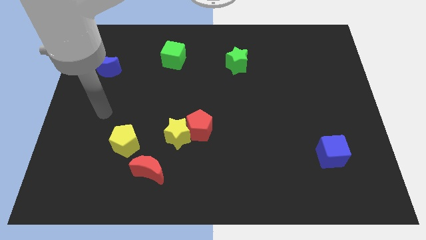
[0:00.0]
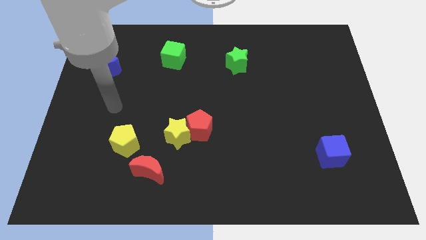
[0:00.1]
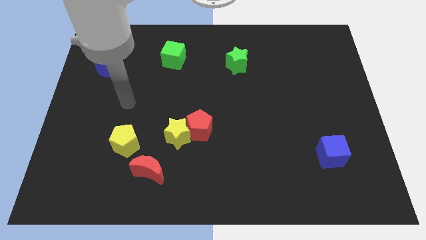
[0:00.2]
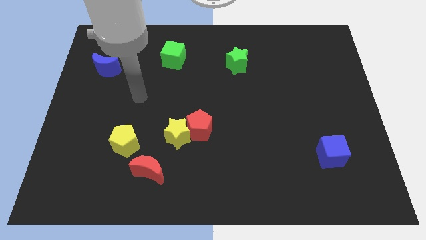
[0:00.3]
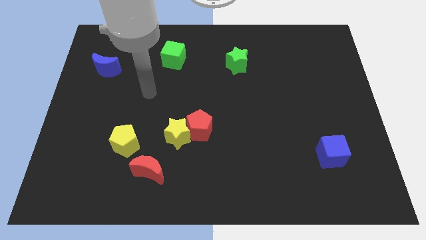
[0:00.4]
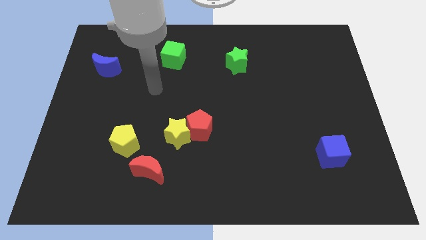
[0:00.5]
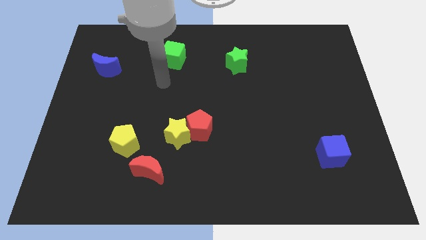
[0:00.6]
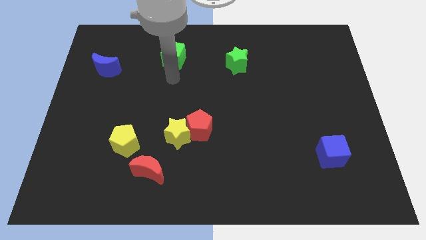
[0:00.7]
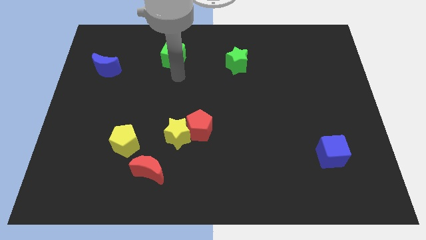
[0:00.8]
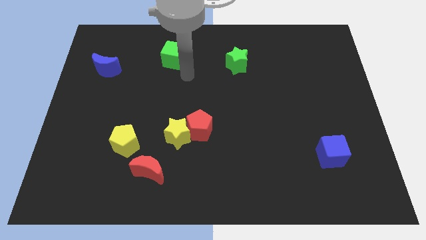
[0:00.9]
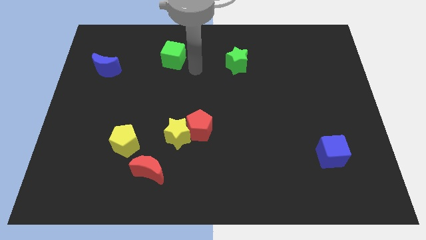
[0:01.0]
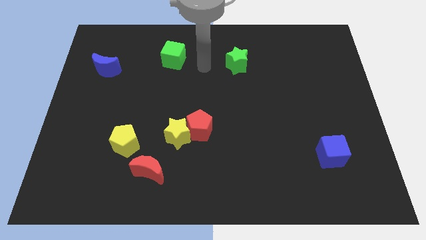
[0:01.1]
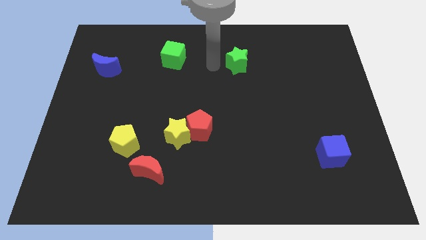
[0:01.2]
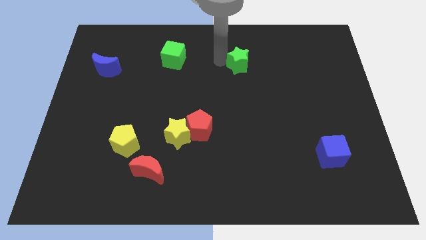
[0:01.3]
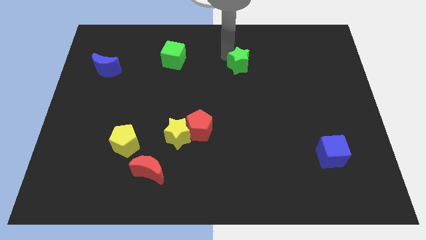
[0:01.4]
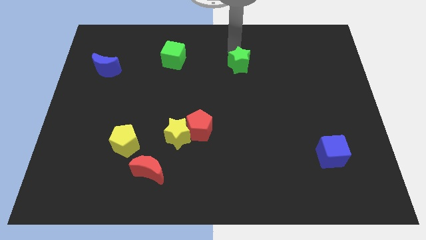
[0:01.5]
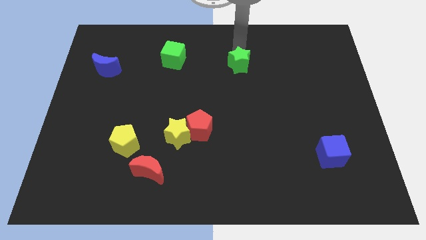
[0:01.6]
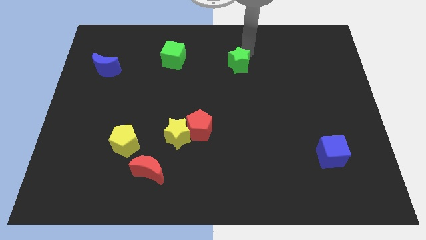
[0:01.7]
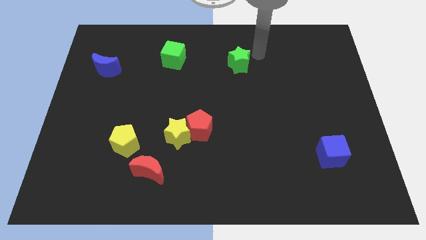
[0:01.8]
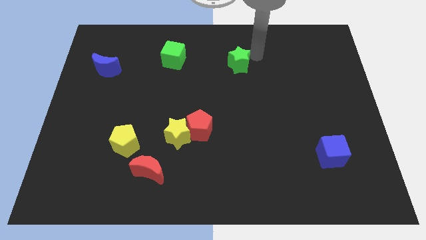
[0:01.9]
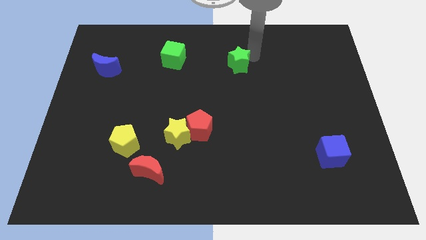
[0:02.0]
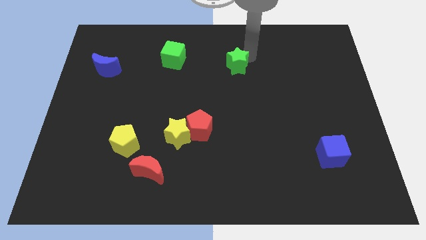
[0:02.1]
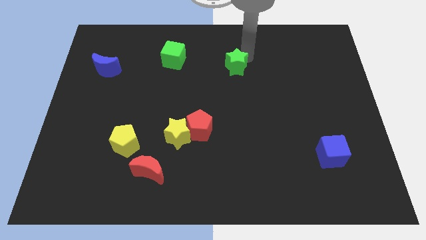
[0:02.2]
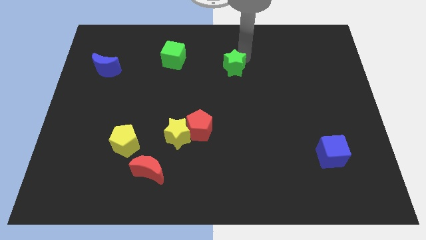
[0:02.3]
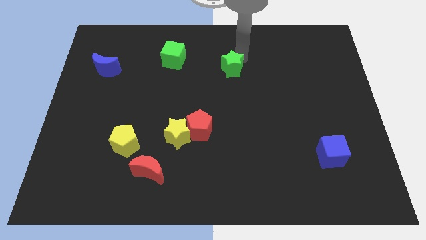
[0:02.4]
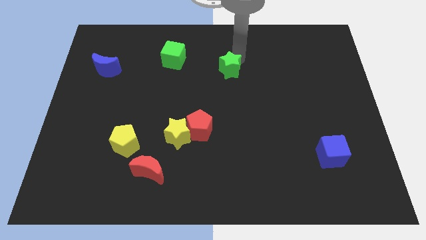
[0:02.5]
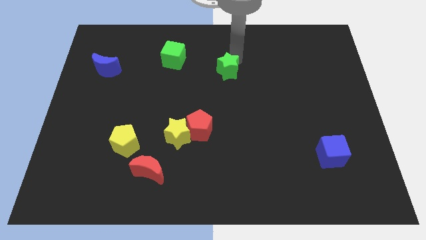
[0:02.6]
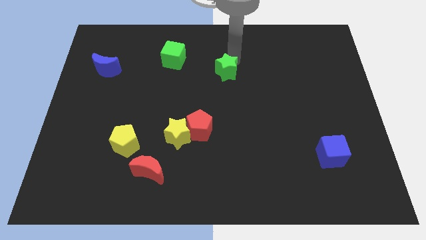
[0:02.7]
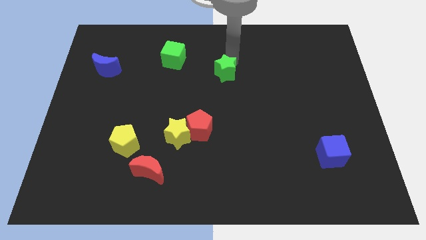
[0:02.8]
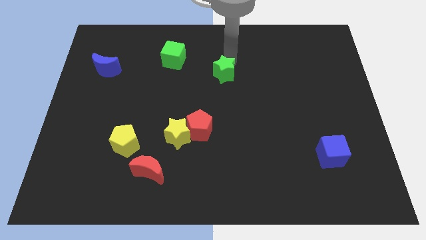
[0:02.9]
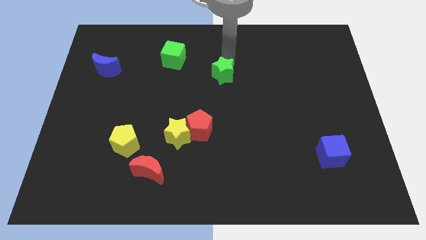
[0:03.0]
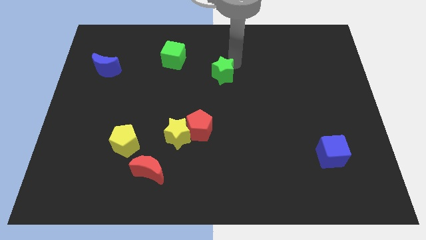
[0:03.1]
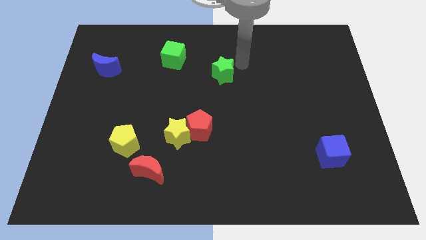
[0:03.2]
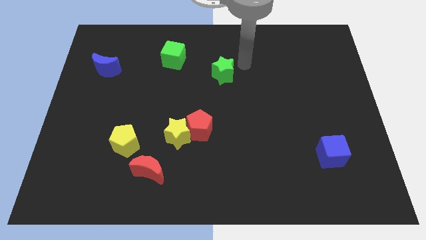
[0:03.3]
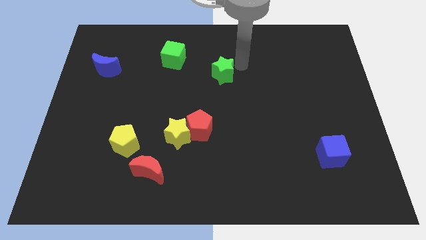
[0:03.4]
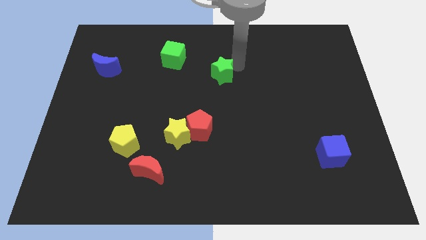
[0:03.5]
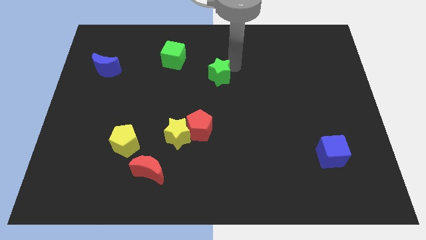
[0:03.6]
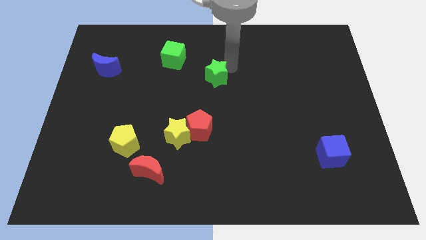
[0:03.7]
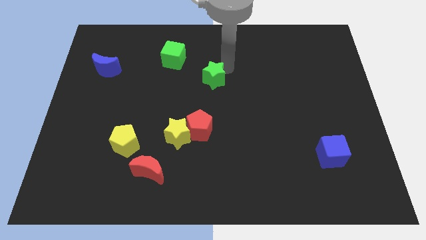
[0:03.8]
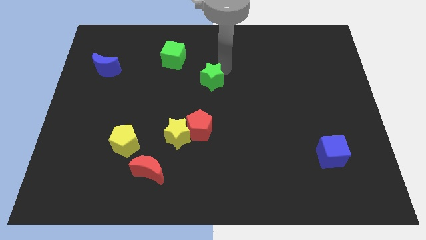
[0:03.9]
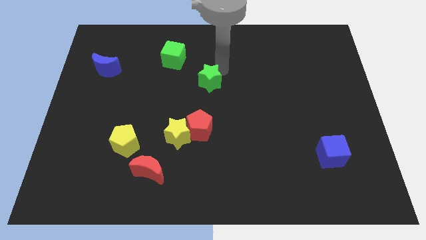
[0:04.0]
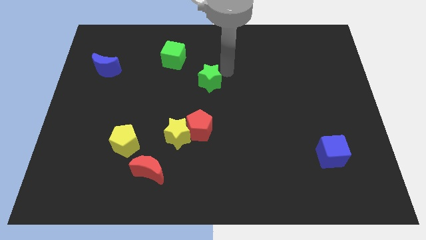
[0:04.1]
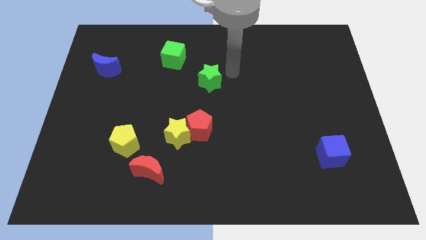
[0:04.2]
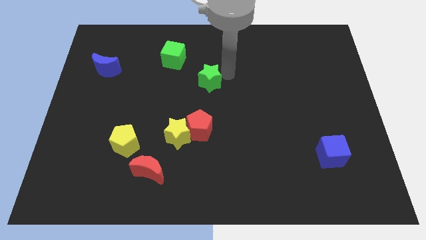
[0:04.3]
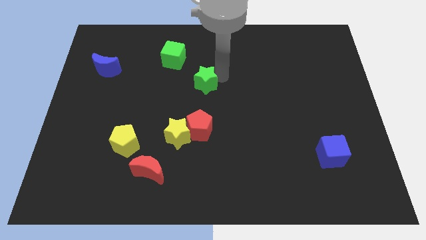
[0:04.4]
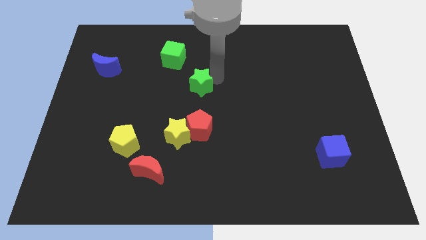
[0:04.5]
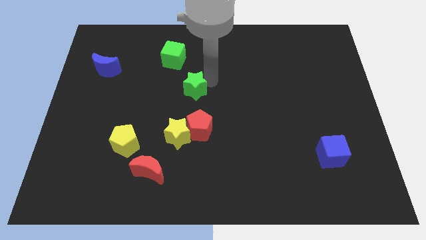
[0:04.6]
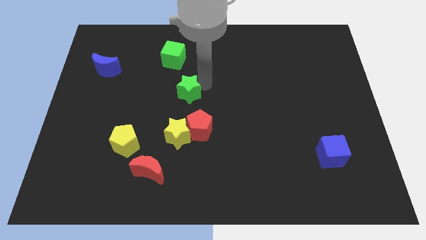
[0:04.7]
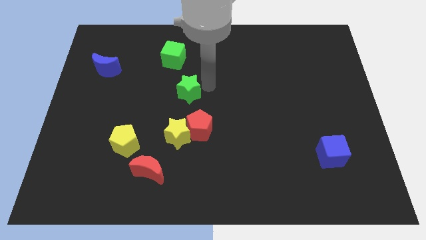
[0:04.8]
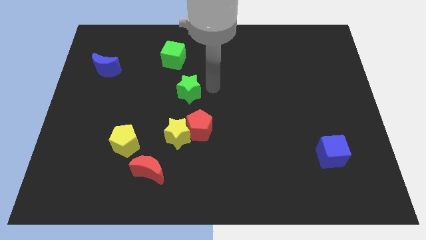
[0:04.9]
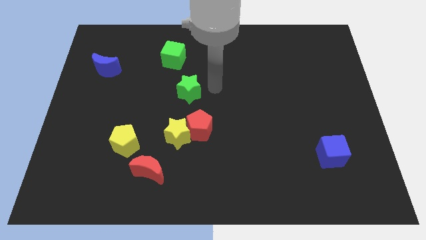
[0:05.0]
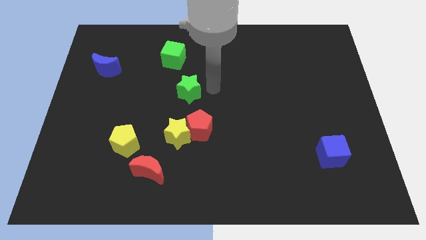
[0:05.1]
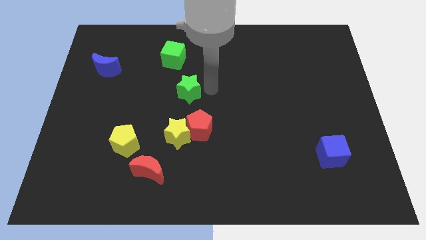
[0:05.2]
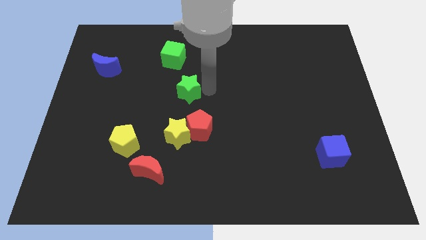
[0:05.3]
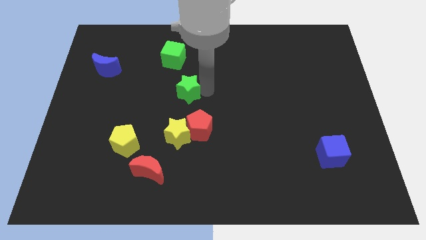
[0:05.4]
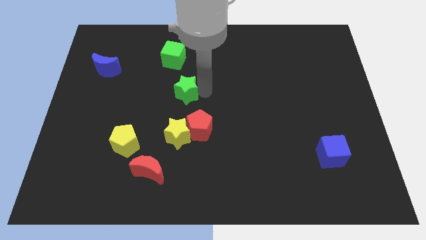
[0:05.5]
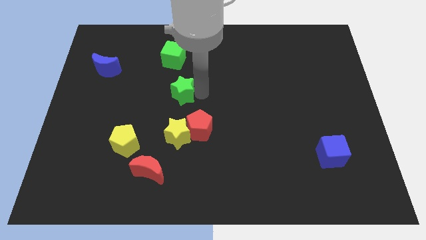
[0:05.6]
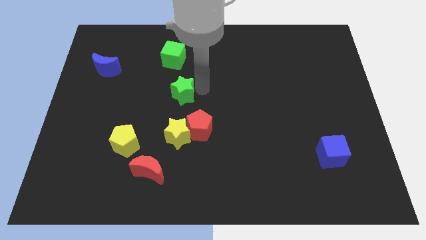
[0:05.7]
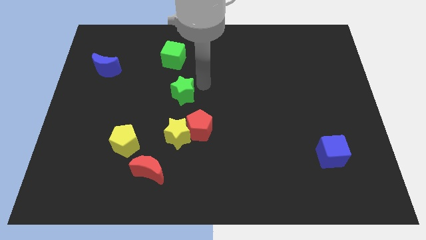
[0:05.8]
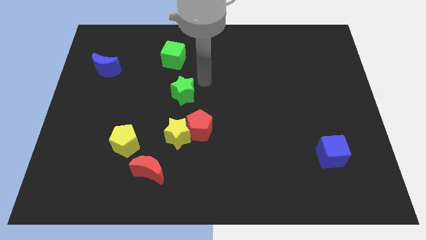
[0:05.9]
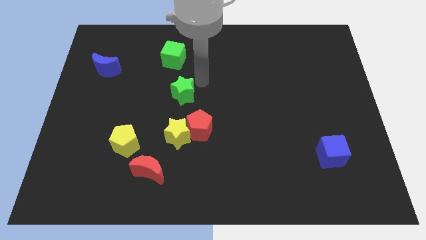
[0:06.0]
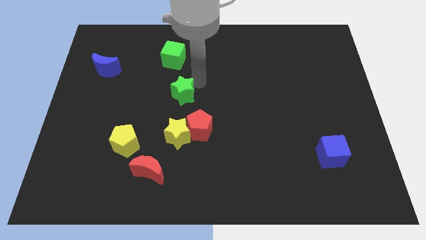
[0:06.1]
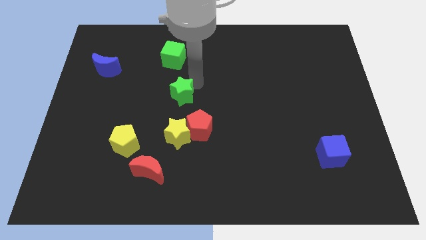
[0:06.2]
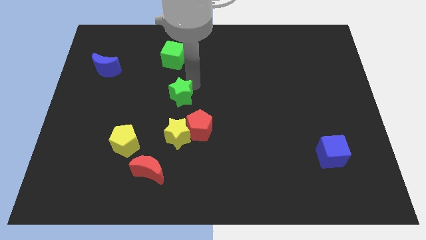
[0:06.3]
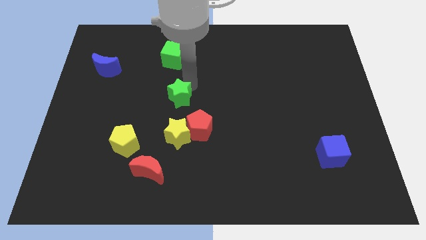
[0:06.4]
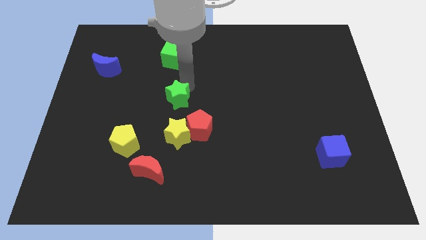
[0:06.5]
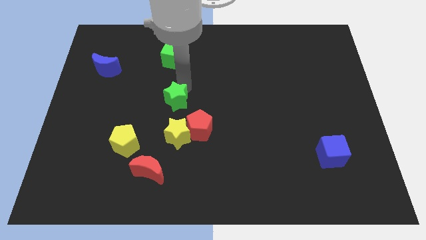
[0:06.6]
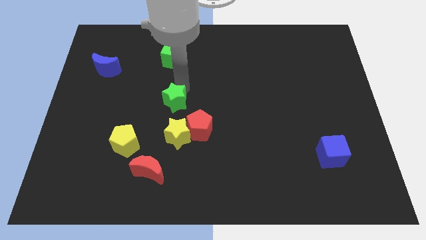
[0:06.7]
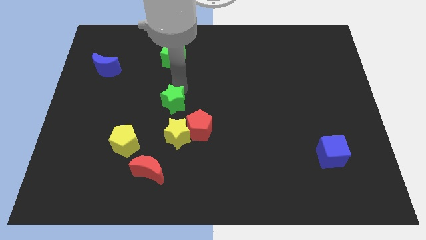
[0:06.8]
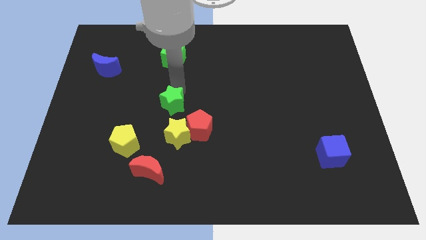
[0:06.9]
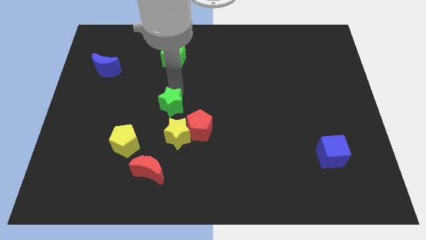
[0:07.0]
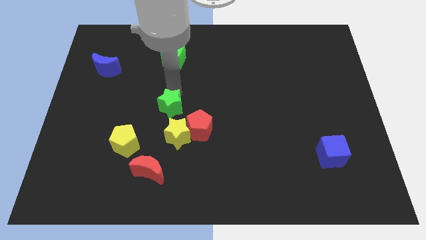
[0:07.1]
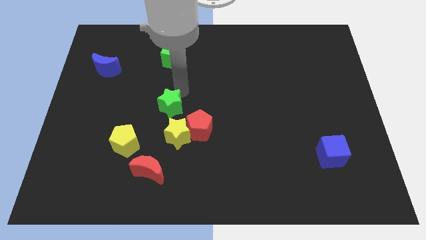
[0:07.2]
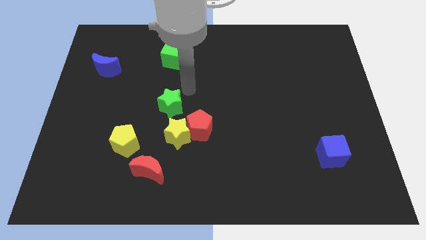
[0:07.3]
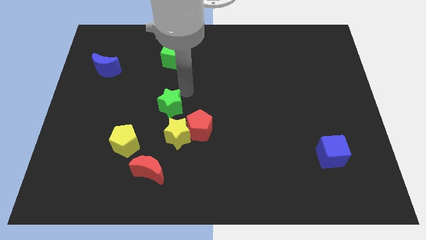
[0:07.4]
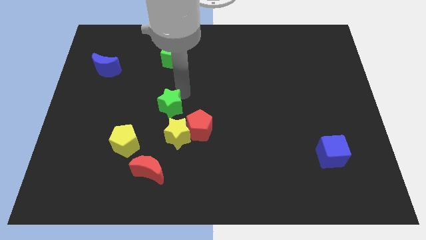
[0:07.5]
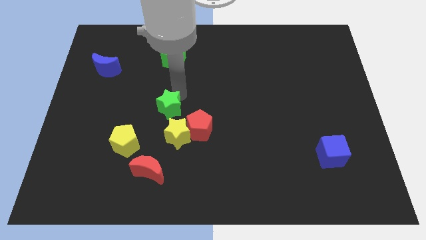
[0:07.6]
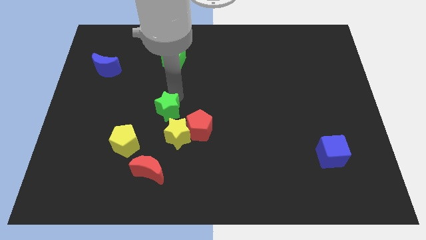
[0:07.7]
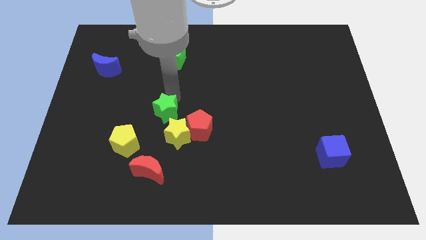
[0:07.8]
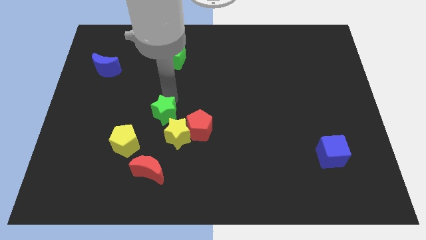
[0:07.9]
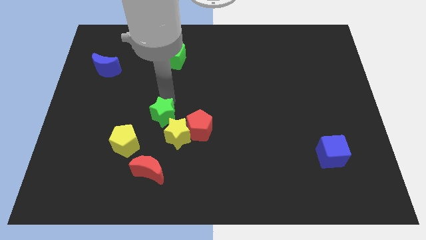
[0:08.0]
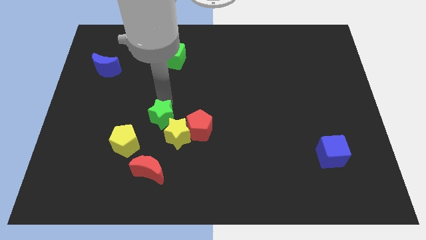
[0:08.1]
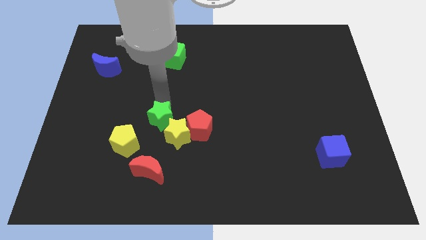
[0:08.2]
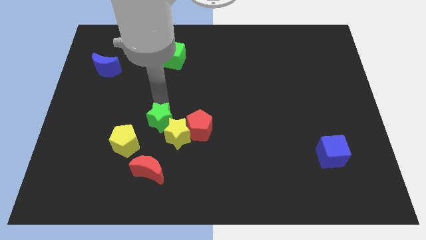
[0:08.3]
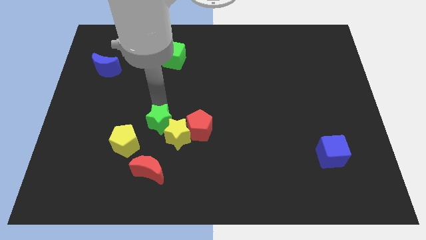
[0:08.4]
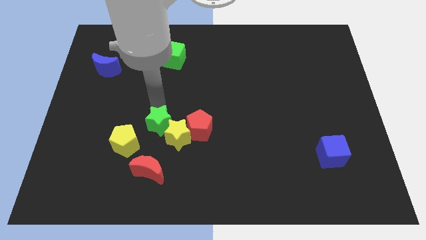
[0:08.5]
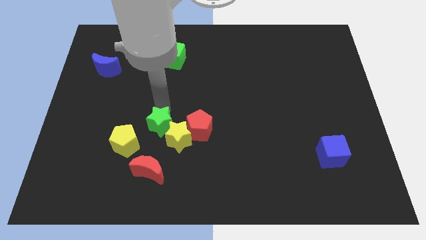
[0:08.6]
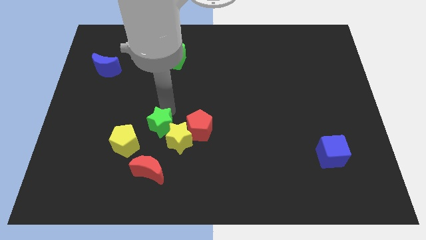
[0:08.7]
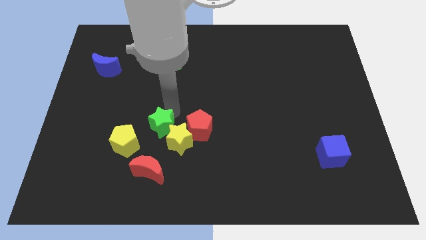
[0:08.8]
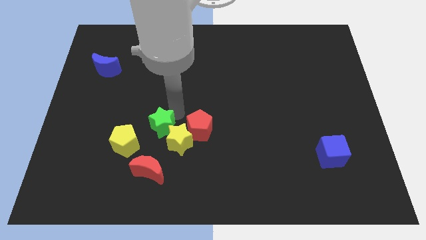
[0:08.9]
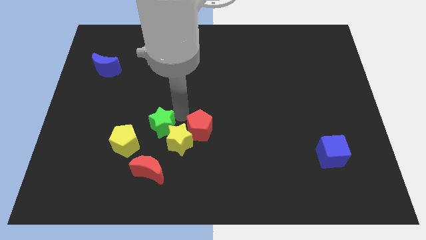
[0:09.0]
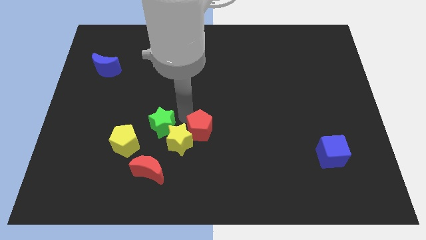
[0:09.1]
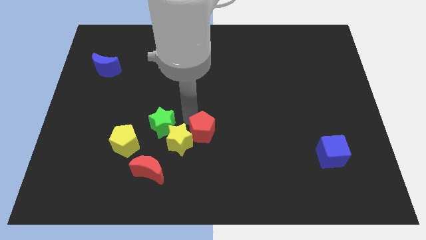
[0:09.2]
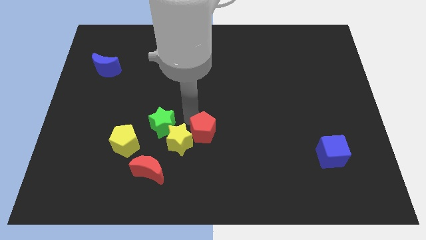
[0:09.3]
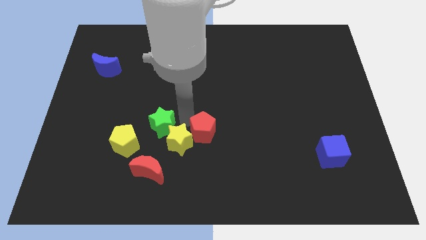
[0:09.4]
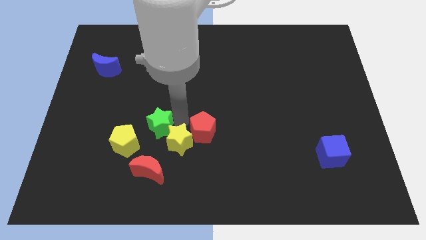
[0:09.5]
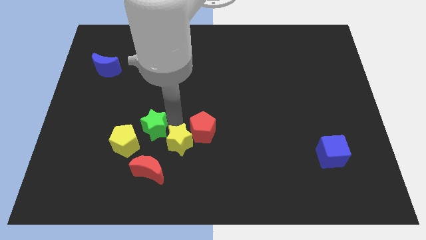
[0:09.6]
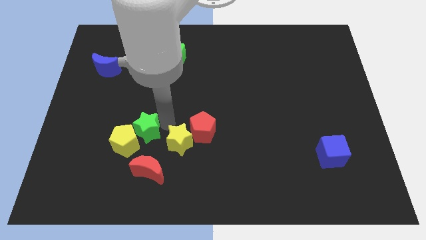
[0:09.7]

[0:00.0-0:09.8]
put the green star to the yellow pentagon
